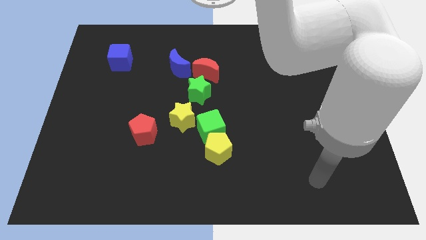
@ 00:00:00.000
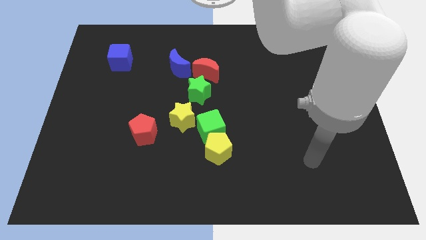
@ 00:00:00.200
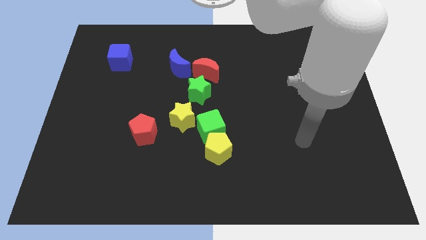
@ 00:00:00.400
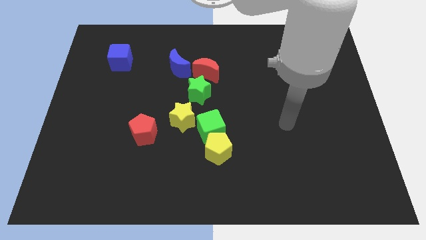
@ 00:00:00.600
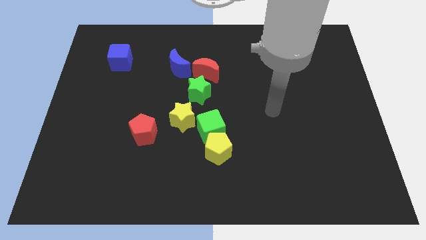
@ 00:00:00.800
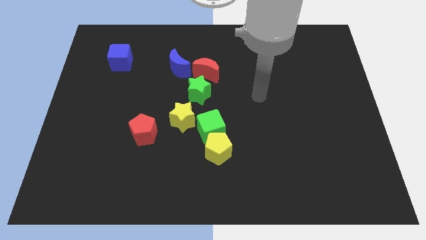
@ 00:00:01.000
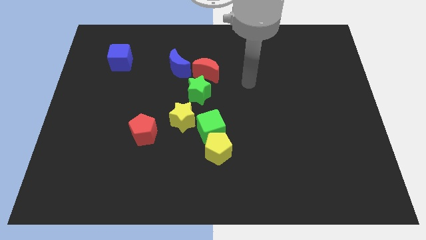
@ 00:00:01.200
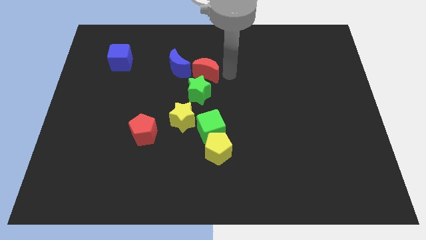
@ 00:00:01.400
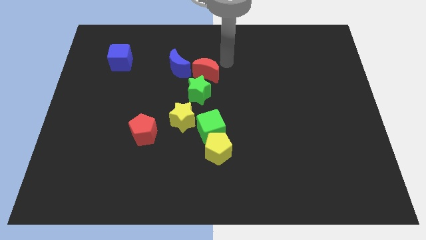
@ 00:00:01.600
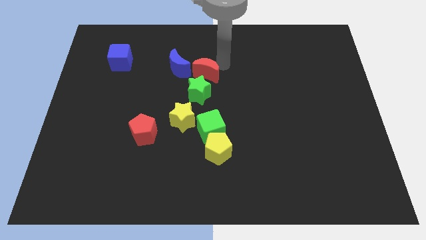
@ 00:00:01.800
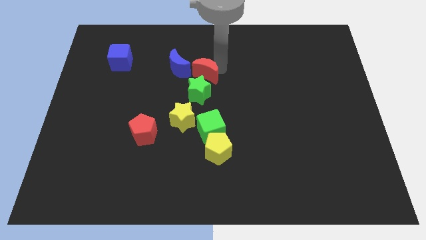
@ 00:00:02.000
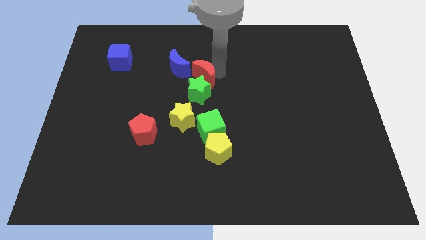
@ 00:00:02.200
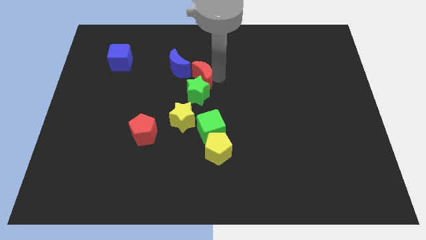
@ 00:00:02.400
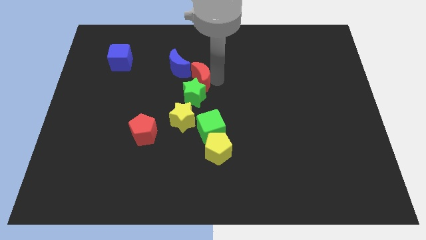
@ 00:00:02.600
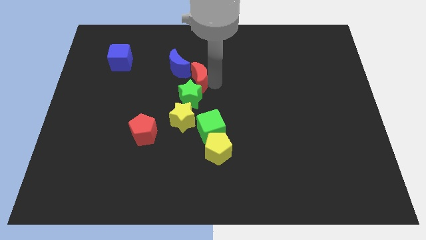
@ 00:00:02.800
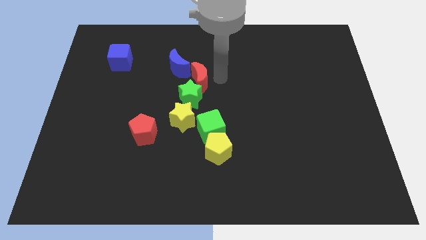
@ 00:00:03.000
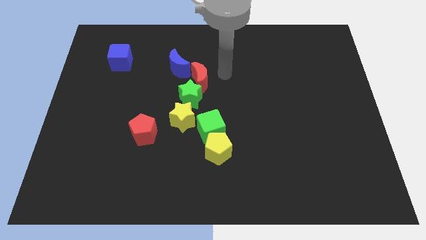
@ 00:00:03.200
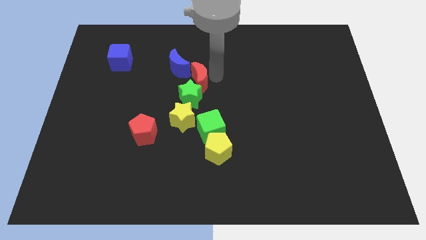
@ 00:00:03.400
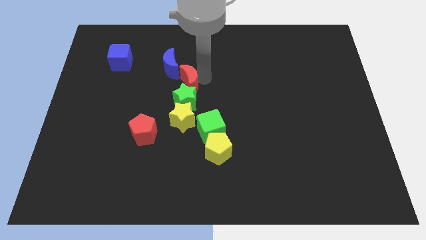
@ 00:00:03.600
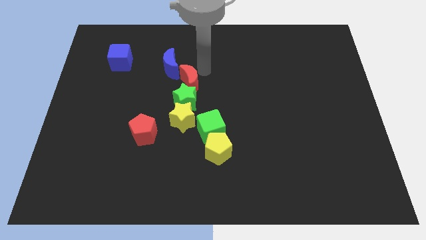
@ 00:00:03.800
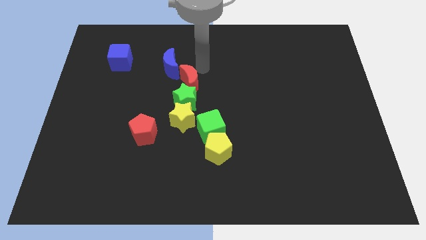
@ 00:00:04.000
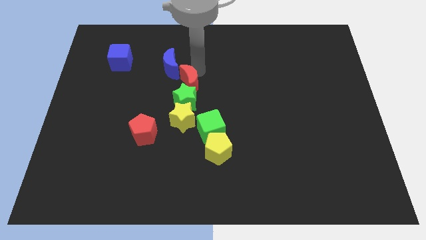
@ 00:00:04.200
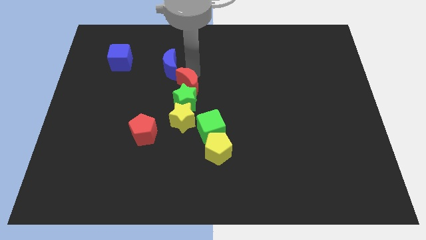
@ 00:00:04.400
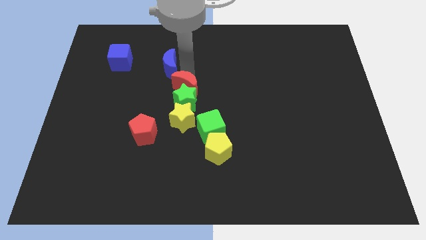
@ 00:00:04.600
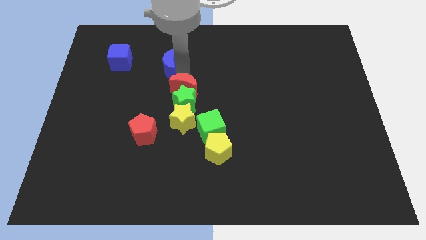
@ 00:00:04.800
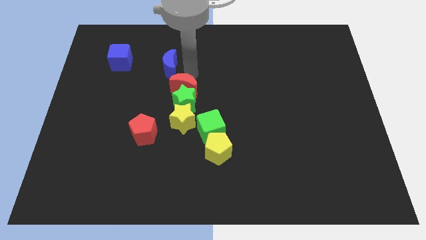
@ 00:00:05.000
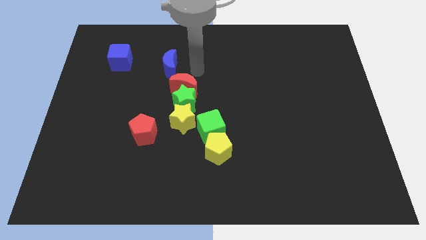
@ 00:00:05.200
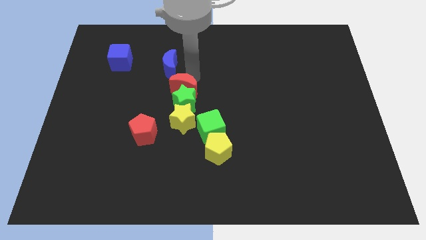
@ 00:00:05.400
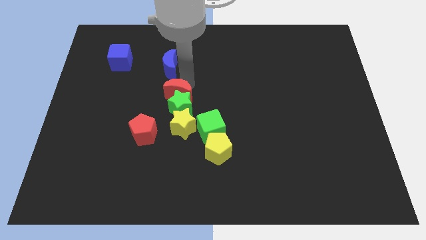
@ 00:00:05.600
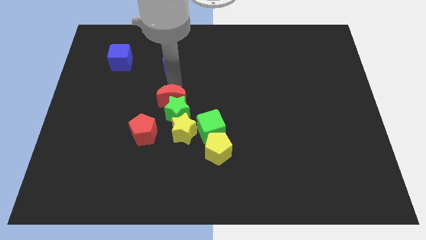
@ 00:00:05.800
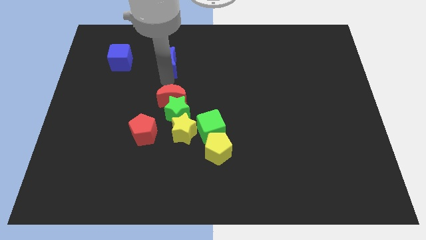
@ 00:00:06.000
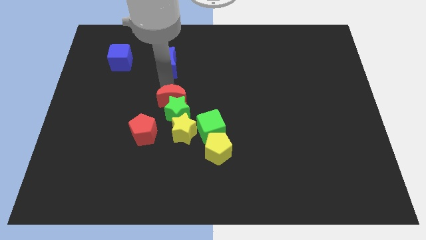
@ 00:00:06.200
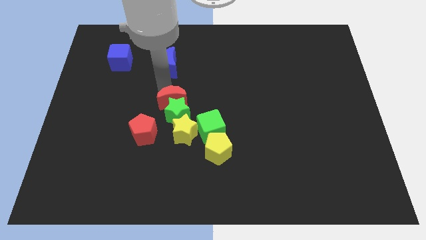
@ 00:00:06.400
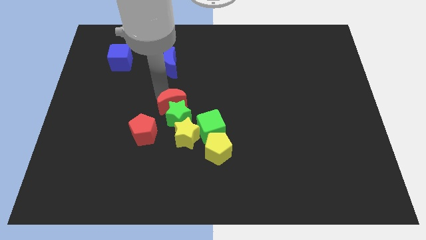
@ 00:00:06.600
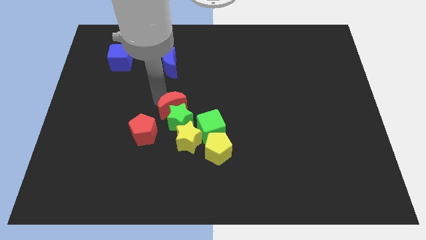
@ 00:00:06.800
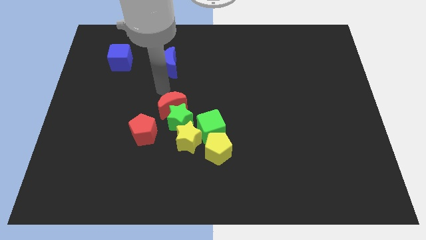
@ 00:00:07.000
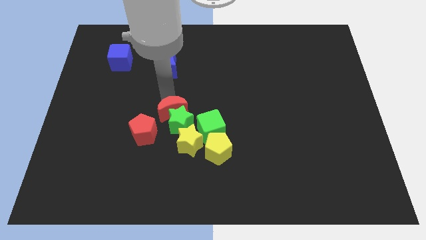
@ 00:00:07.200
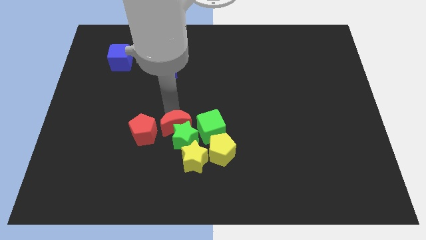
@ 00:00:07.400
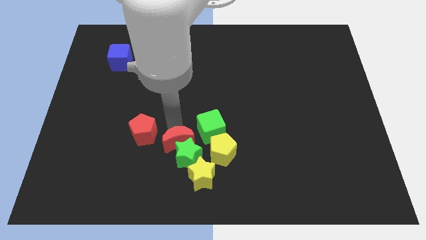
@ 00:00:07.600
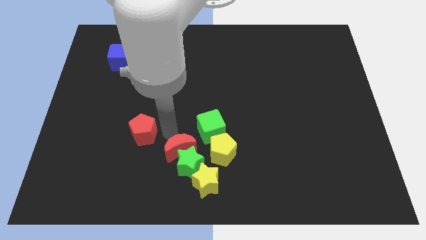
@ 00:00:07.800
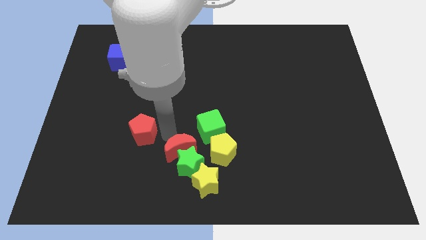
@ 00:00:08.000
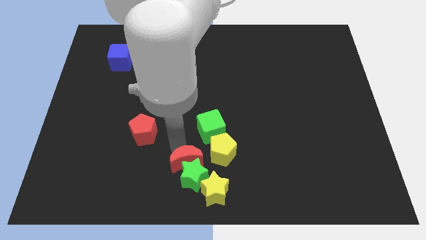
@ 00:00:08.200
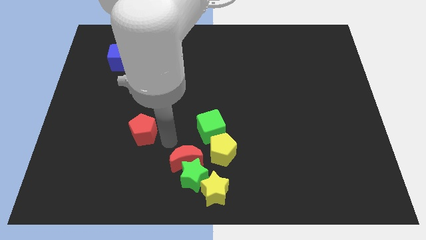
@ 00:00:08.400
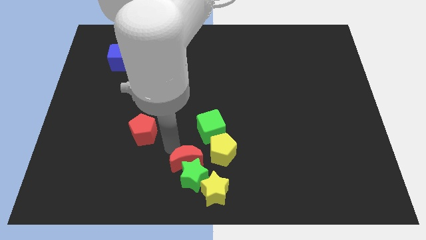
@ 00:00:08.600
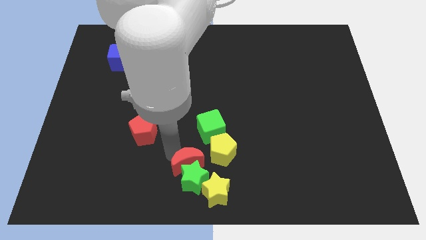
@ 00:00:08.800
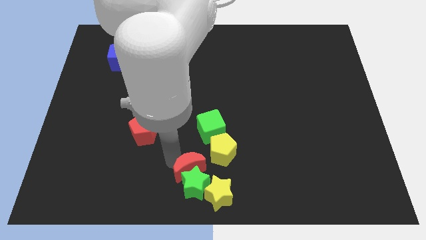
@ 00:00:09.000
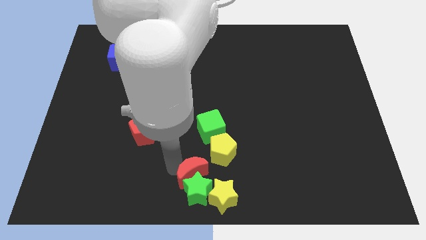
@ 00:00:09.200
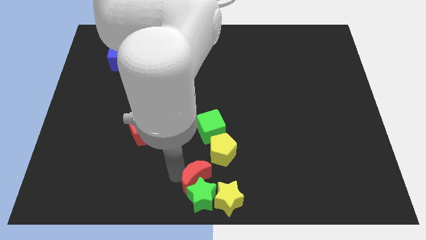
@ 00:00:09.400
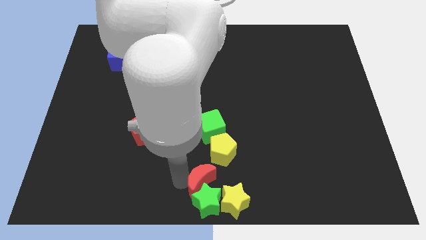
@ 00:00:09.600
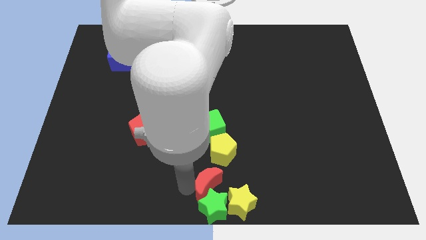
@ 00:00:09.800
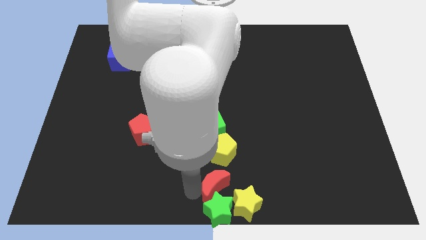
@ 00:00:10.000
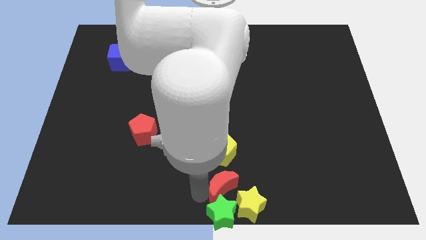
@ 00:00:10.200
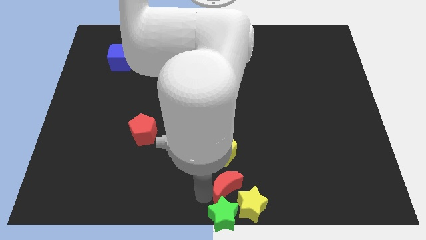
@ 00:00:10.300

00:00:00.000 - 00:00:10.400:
push the red moon next to the yellow star

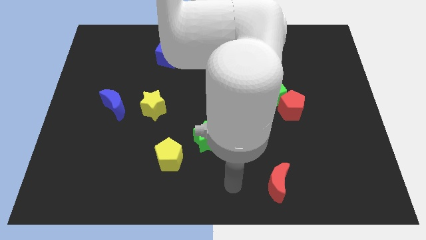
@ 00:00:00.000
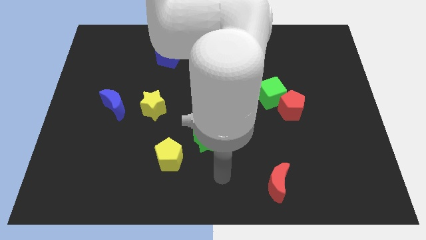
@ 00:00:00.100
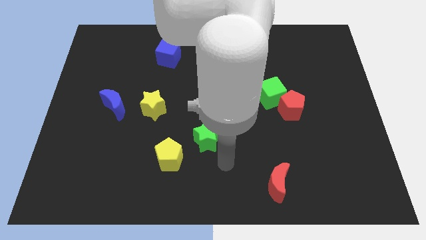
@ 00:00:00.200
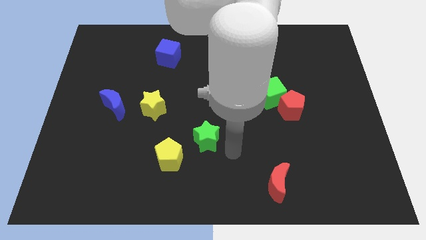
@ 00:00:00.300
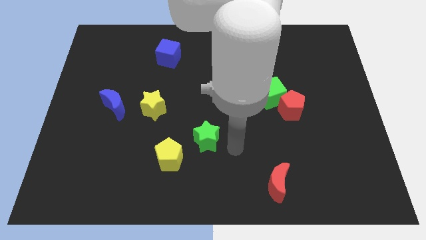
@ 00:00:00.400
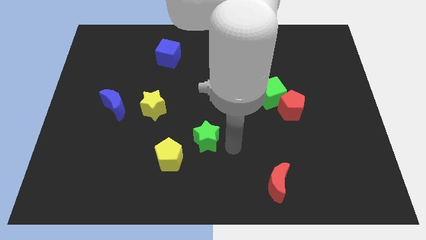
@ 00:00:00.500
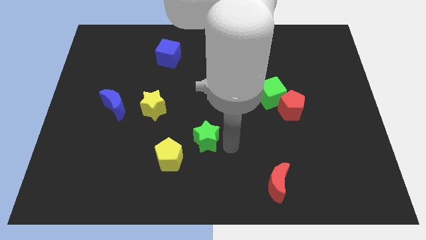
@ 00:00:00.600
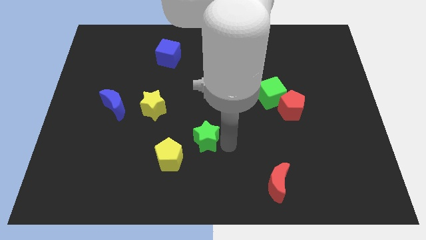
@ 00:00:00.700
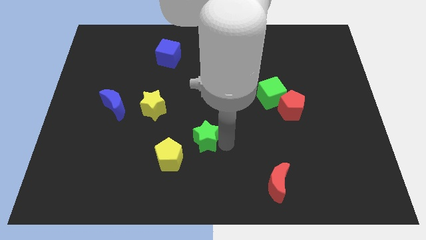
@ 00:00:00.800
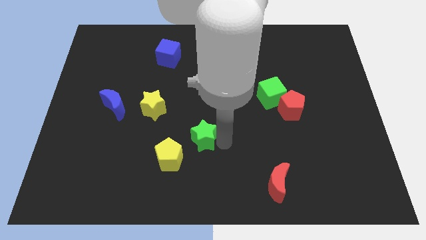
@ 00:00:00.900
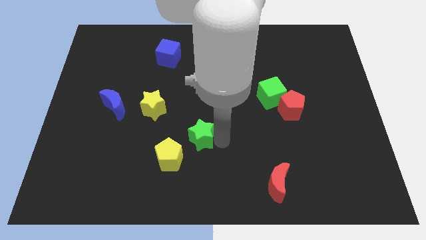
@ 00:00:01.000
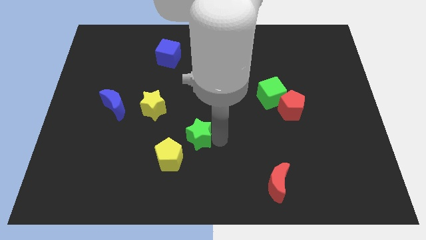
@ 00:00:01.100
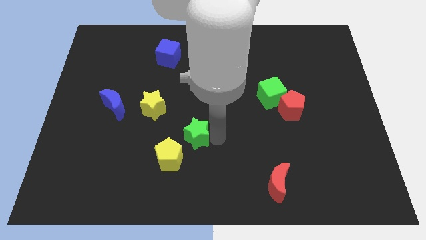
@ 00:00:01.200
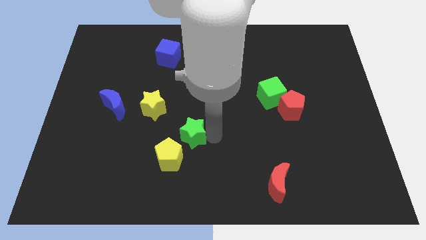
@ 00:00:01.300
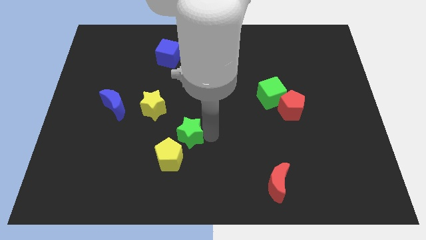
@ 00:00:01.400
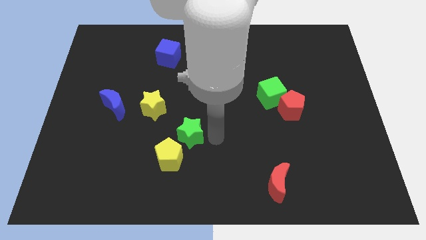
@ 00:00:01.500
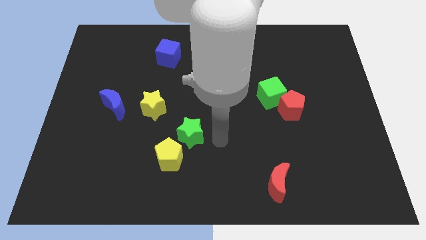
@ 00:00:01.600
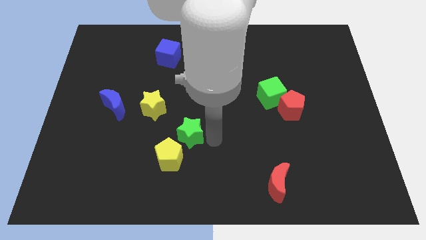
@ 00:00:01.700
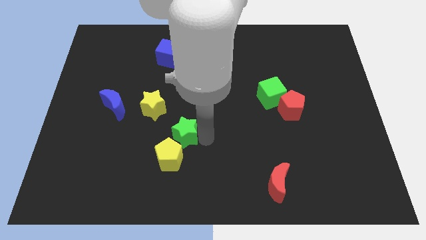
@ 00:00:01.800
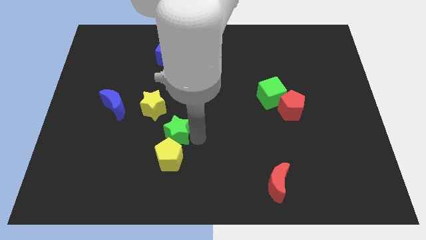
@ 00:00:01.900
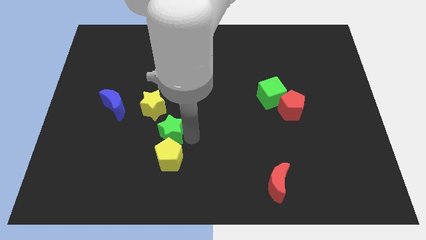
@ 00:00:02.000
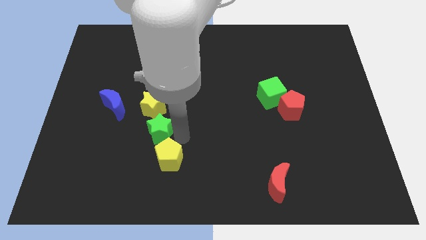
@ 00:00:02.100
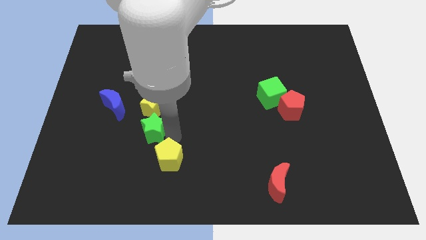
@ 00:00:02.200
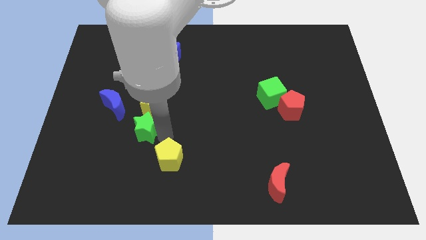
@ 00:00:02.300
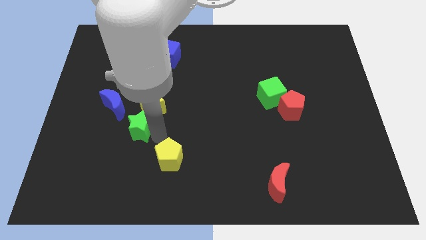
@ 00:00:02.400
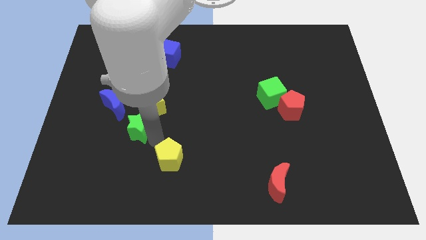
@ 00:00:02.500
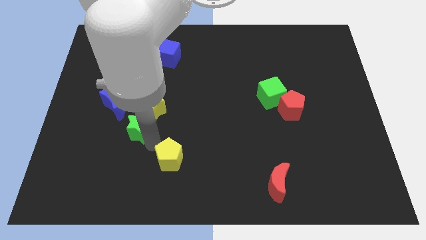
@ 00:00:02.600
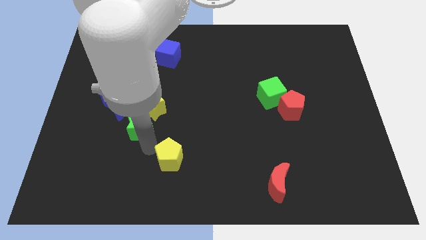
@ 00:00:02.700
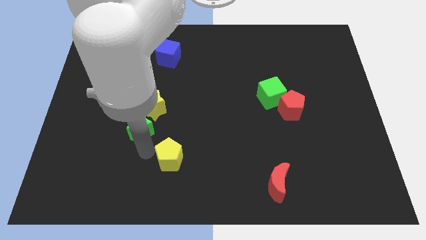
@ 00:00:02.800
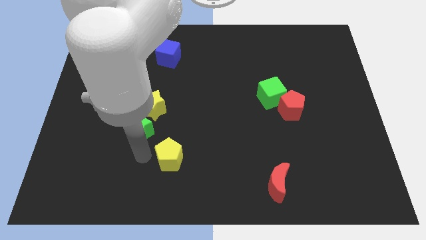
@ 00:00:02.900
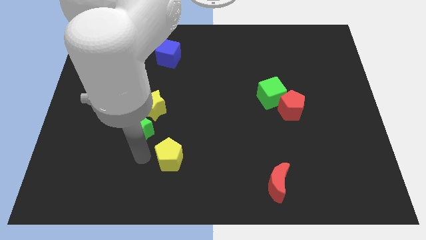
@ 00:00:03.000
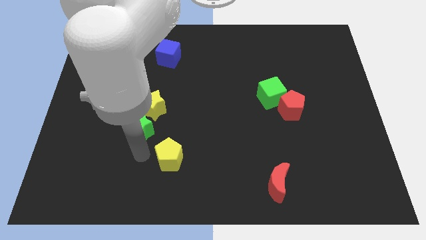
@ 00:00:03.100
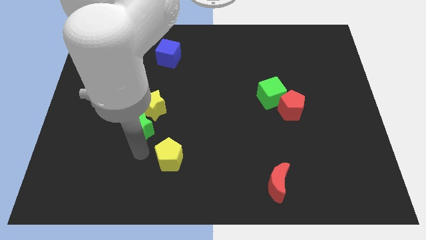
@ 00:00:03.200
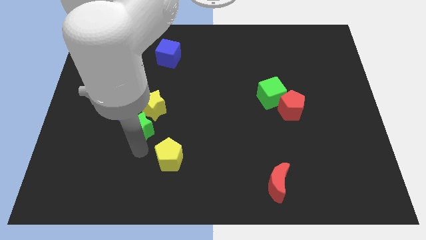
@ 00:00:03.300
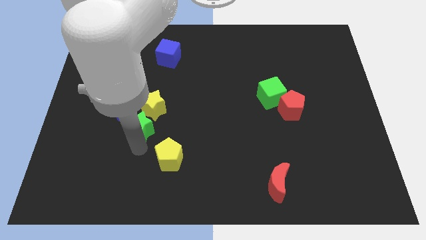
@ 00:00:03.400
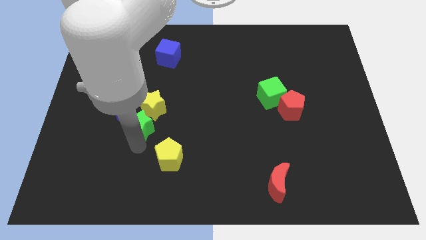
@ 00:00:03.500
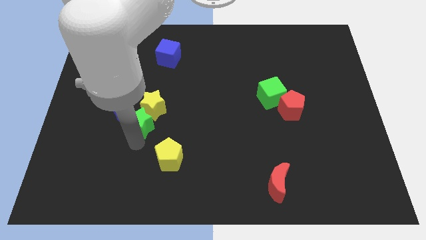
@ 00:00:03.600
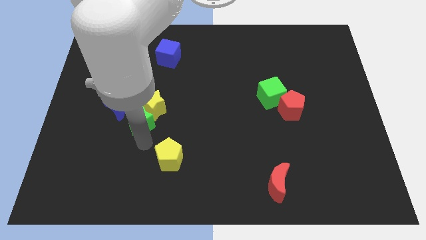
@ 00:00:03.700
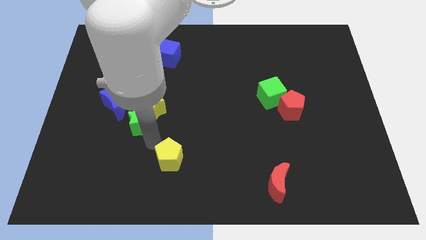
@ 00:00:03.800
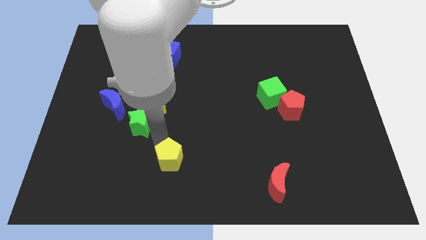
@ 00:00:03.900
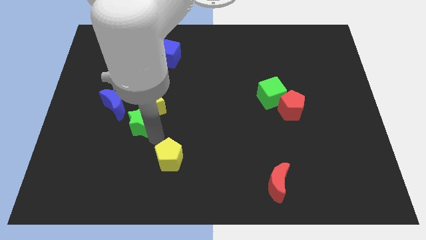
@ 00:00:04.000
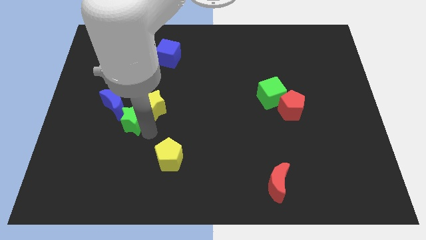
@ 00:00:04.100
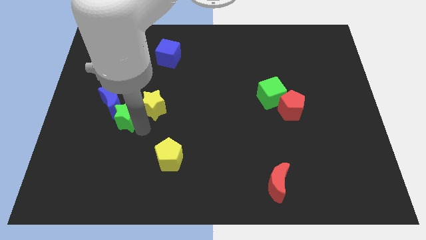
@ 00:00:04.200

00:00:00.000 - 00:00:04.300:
move the green star to the blue moon
